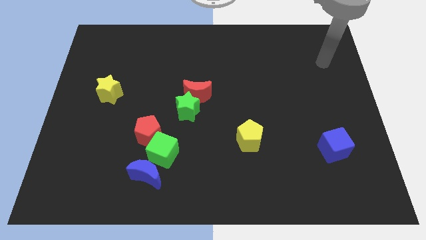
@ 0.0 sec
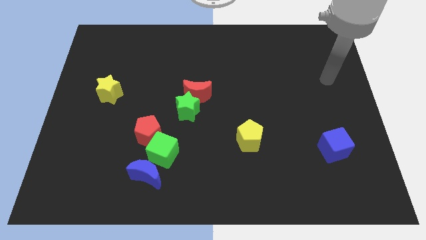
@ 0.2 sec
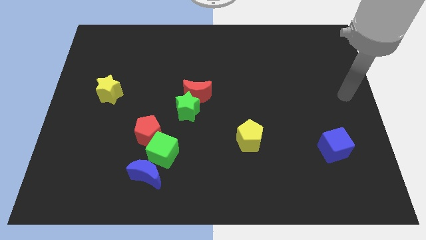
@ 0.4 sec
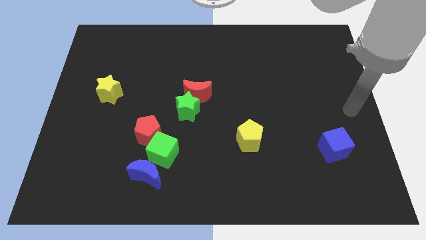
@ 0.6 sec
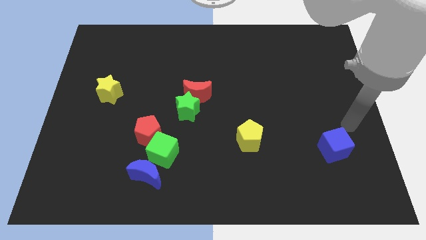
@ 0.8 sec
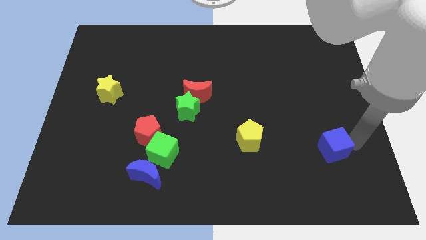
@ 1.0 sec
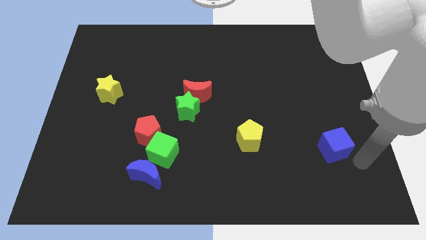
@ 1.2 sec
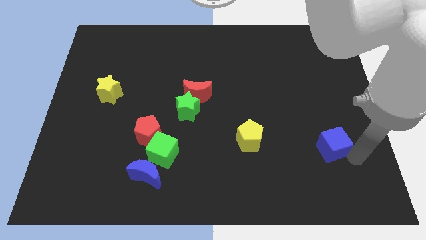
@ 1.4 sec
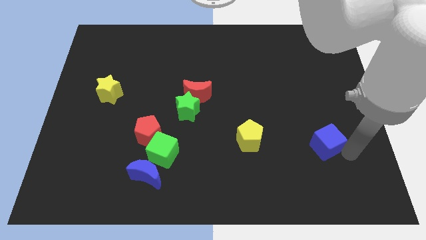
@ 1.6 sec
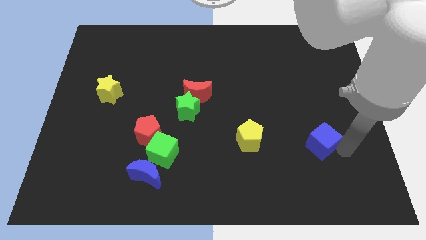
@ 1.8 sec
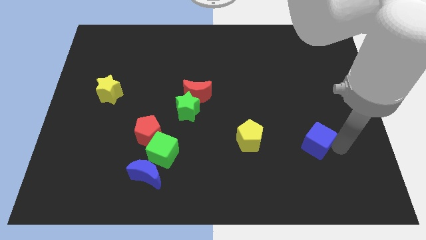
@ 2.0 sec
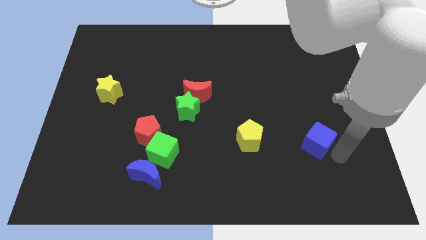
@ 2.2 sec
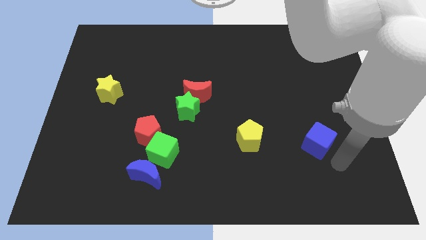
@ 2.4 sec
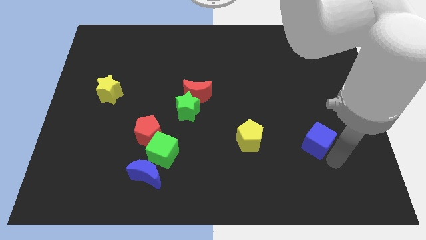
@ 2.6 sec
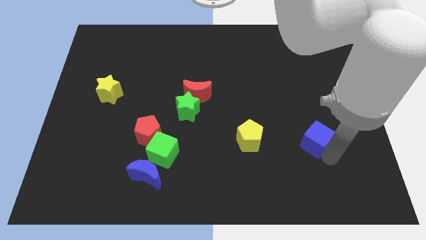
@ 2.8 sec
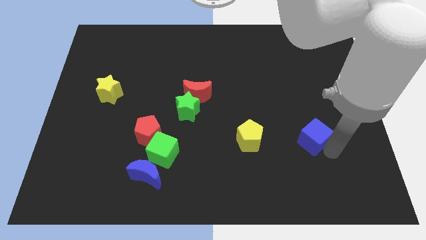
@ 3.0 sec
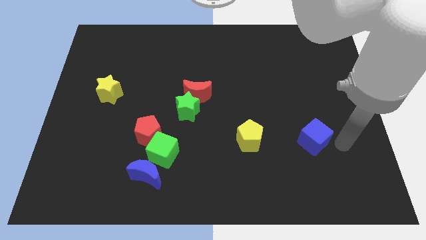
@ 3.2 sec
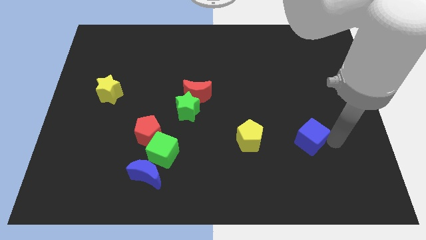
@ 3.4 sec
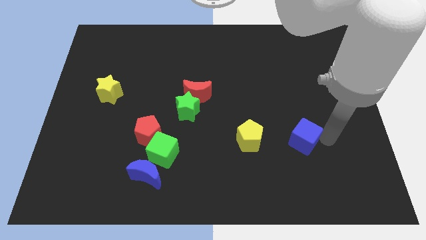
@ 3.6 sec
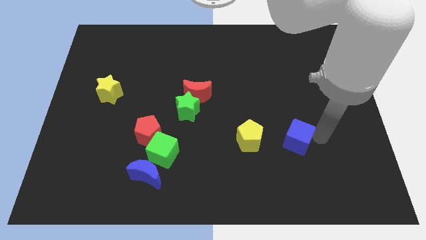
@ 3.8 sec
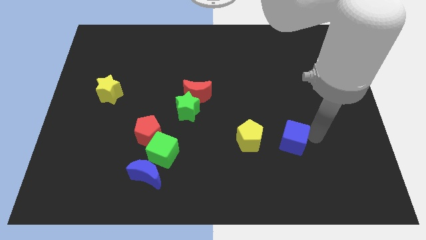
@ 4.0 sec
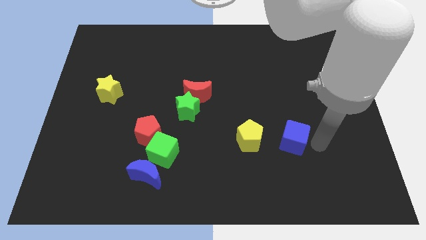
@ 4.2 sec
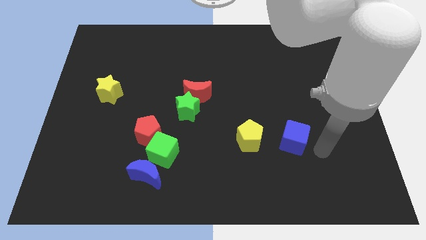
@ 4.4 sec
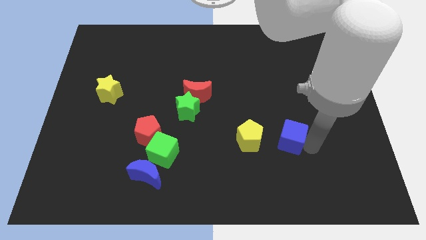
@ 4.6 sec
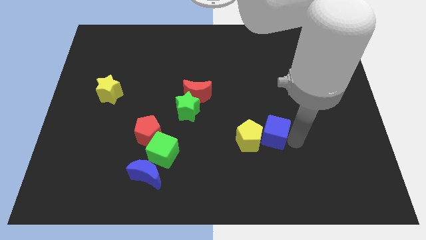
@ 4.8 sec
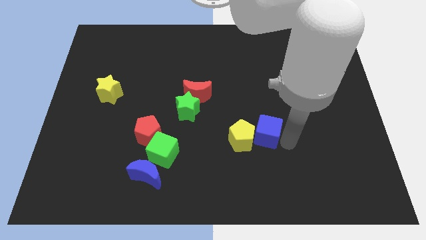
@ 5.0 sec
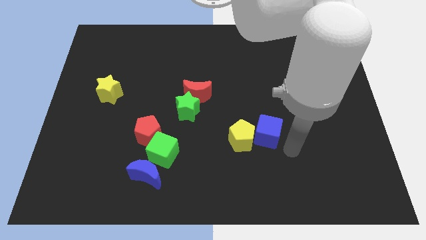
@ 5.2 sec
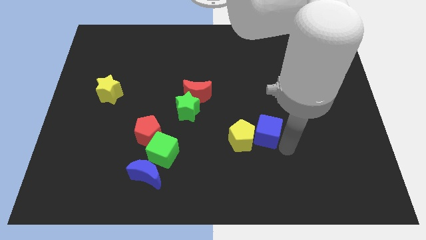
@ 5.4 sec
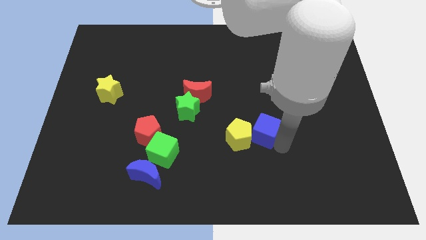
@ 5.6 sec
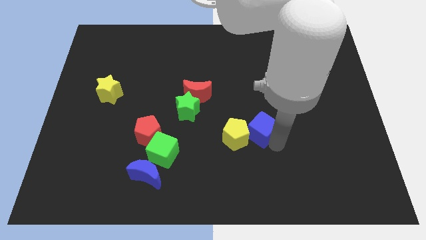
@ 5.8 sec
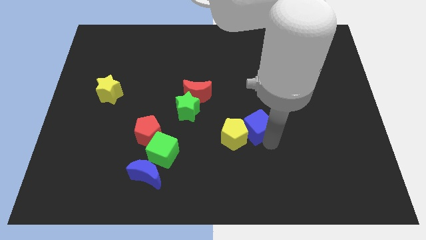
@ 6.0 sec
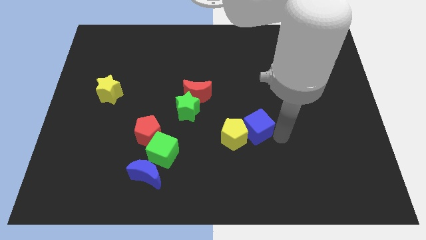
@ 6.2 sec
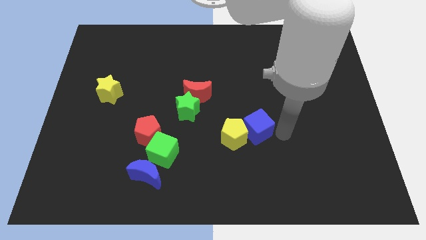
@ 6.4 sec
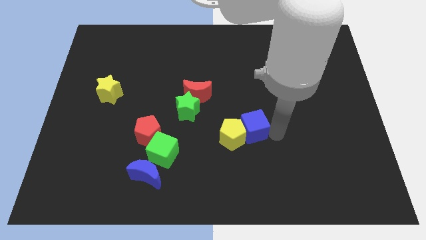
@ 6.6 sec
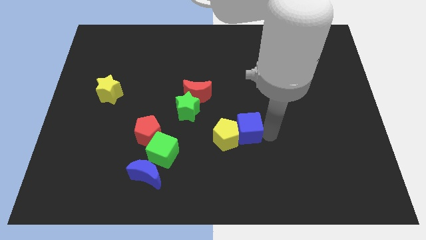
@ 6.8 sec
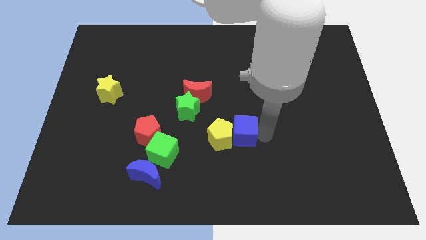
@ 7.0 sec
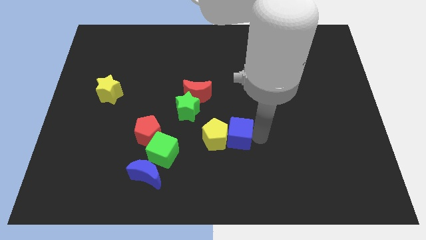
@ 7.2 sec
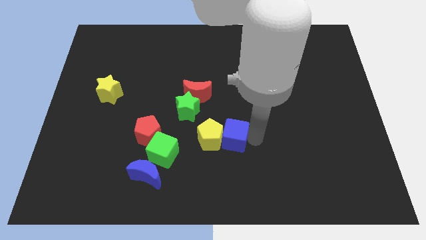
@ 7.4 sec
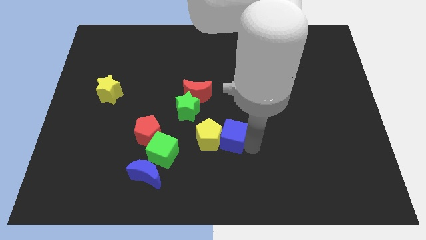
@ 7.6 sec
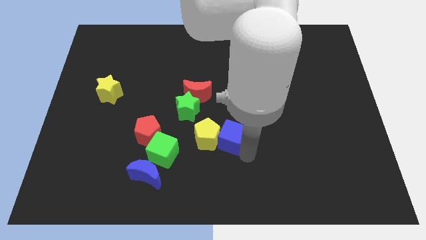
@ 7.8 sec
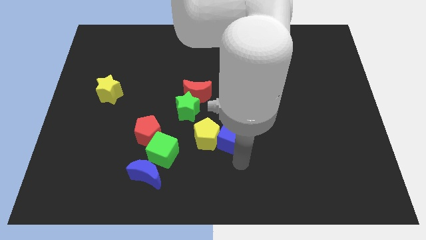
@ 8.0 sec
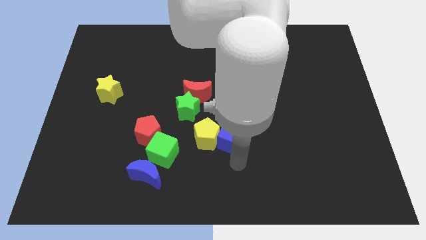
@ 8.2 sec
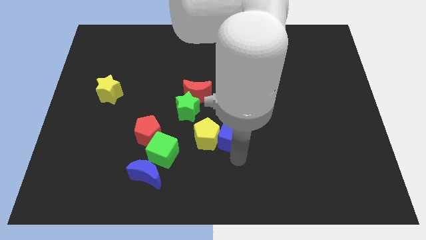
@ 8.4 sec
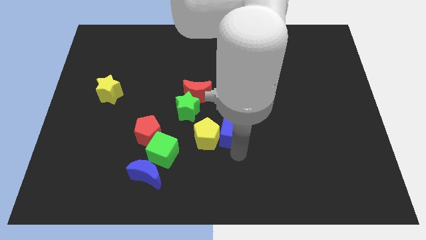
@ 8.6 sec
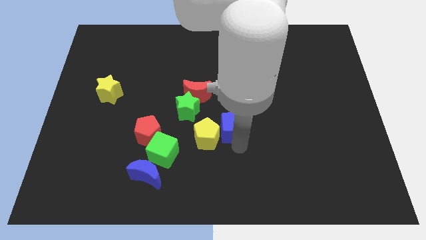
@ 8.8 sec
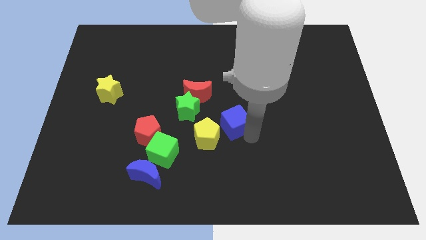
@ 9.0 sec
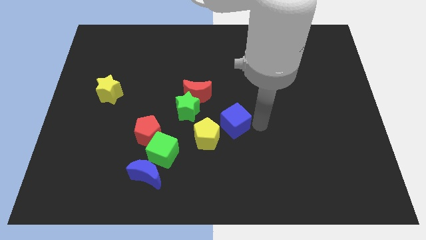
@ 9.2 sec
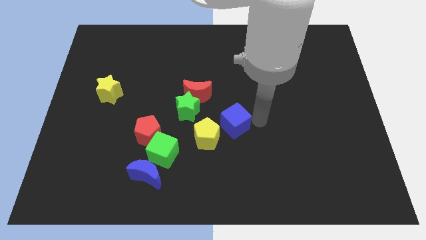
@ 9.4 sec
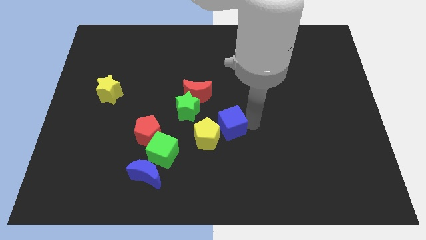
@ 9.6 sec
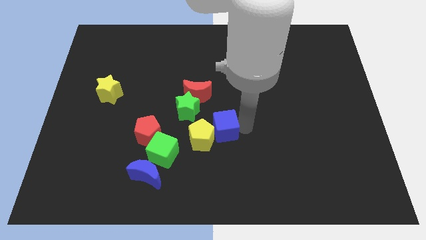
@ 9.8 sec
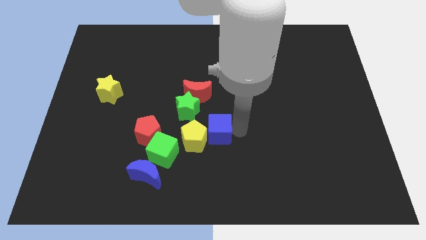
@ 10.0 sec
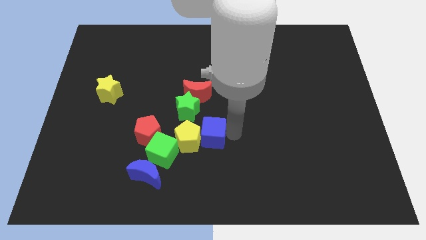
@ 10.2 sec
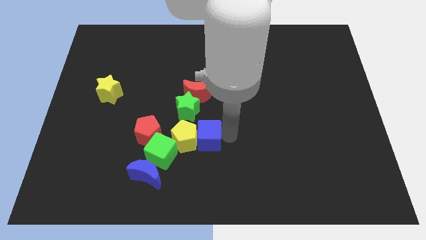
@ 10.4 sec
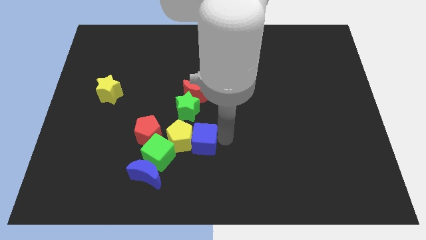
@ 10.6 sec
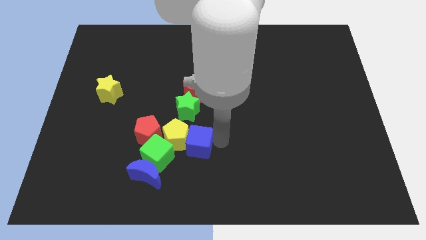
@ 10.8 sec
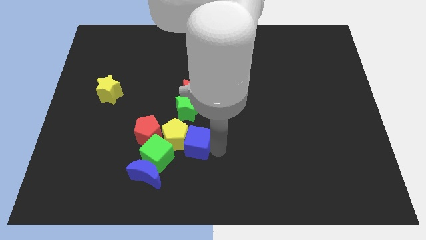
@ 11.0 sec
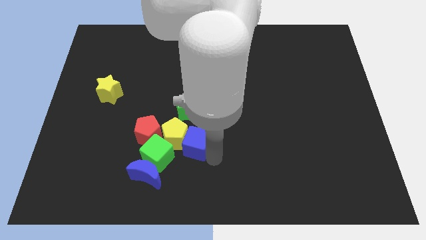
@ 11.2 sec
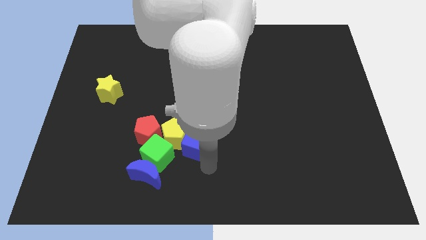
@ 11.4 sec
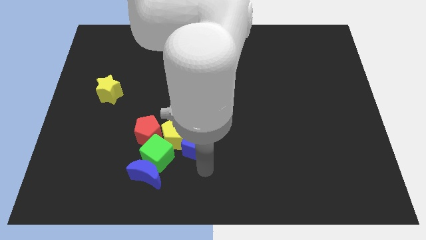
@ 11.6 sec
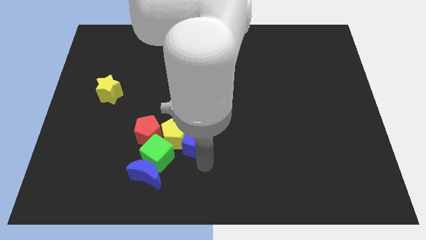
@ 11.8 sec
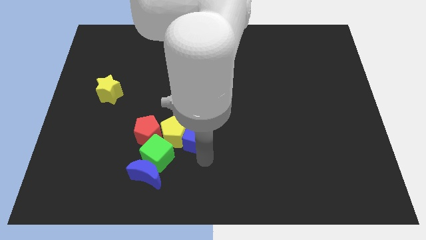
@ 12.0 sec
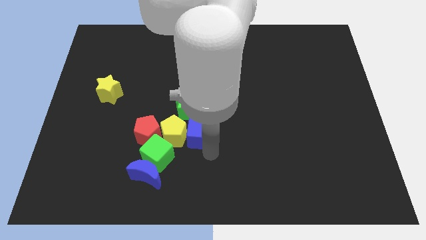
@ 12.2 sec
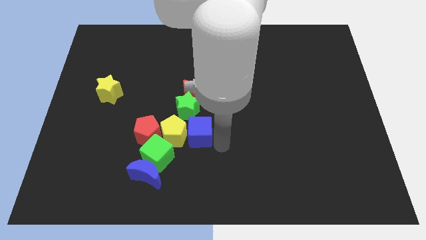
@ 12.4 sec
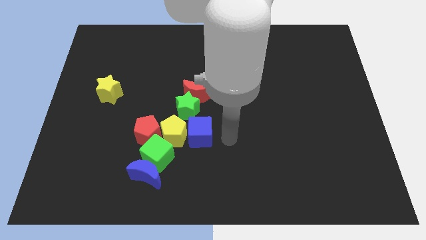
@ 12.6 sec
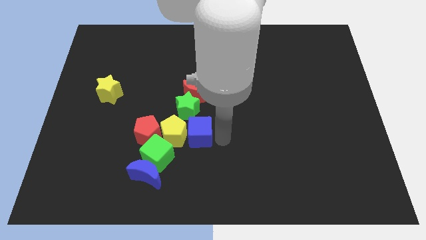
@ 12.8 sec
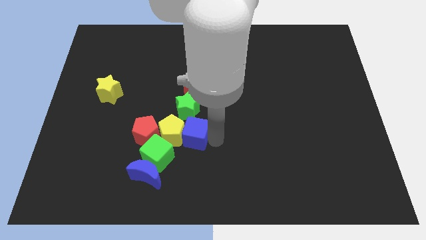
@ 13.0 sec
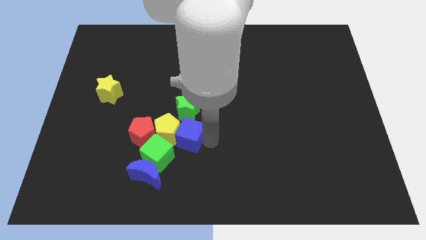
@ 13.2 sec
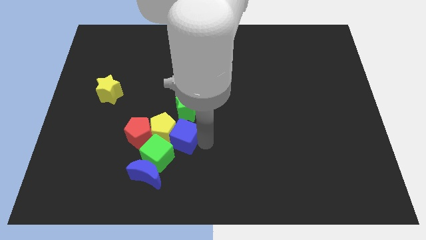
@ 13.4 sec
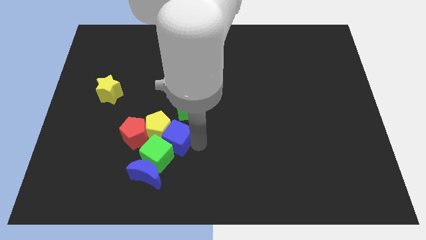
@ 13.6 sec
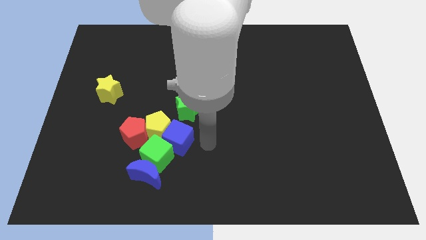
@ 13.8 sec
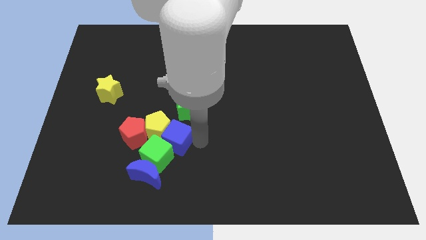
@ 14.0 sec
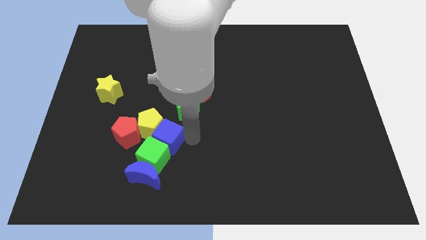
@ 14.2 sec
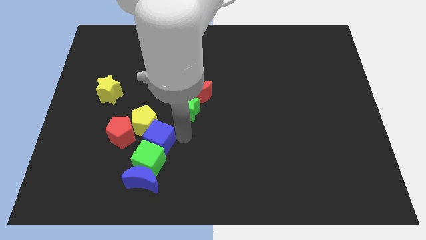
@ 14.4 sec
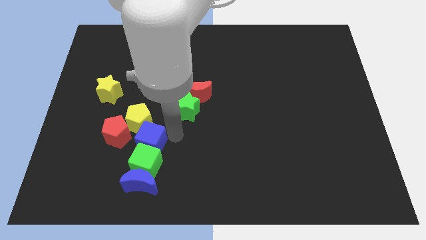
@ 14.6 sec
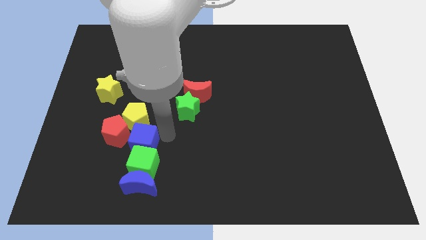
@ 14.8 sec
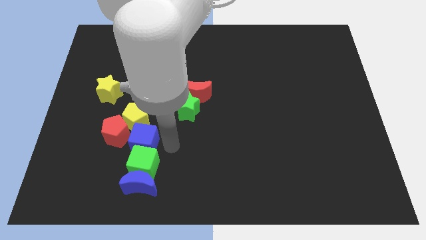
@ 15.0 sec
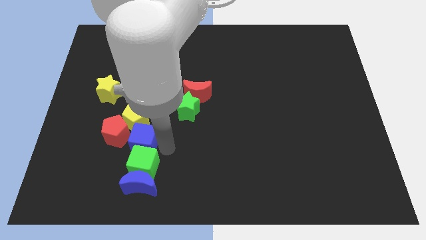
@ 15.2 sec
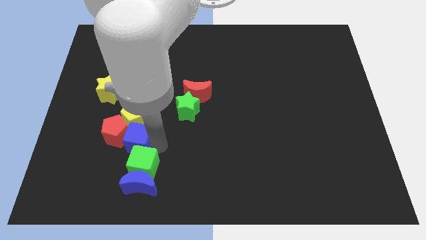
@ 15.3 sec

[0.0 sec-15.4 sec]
slide the blue cube to the red pentagon
